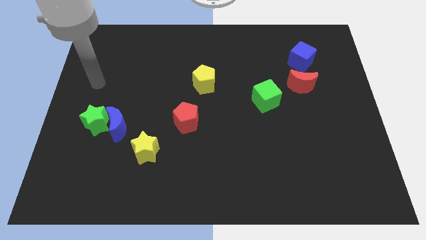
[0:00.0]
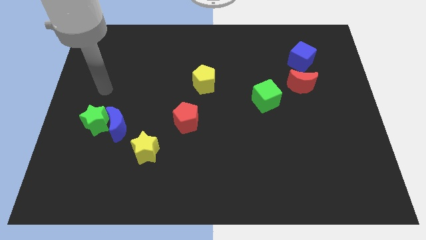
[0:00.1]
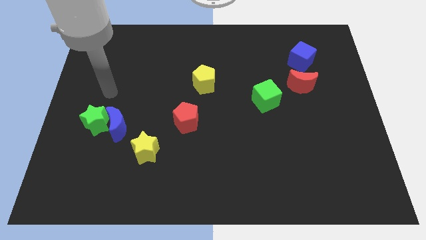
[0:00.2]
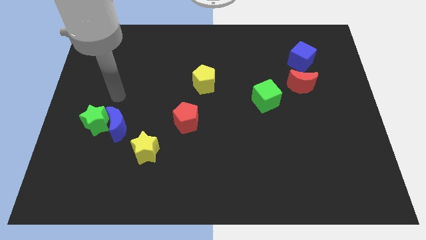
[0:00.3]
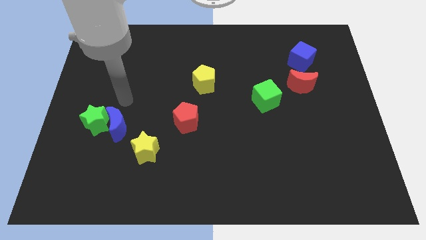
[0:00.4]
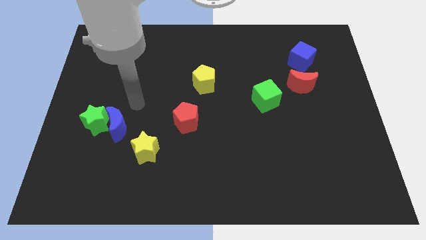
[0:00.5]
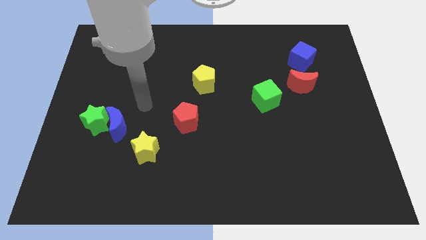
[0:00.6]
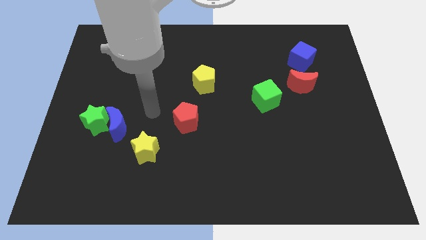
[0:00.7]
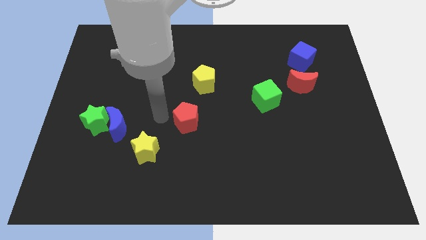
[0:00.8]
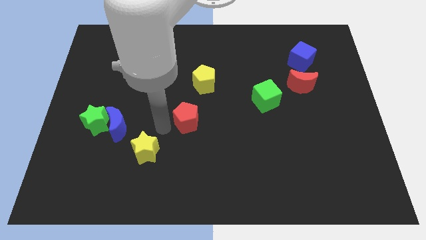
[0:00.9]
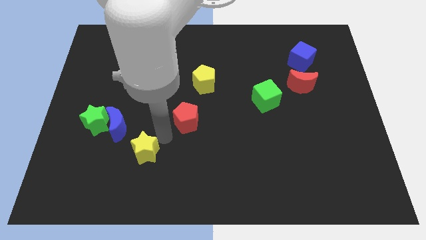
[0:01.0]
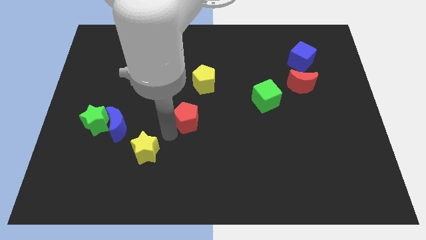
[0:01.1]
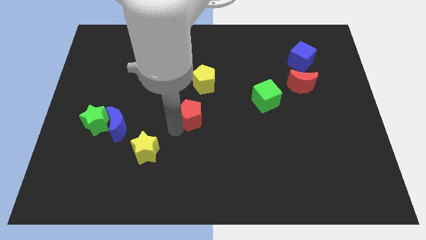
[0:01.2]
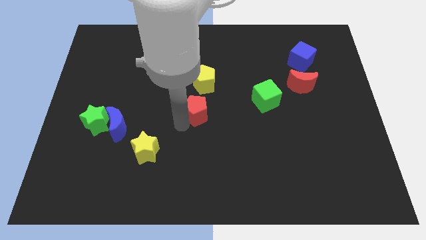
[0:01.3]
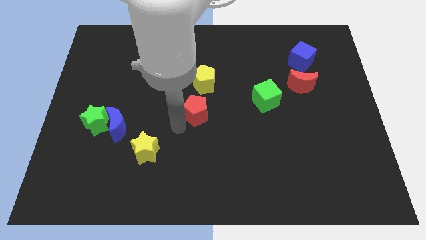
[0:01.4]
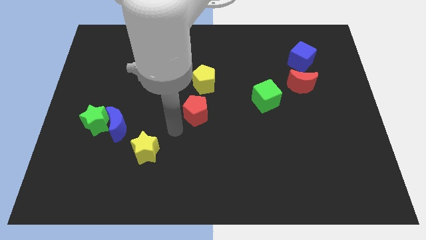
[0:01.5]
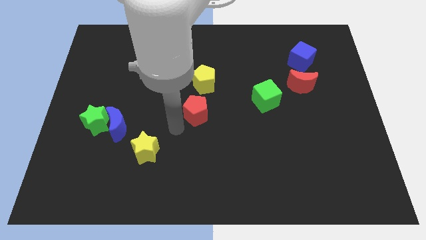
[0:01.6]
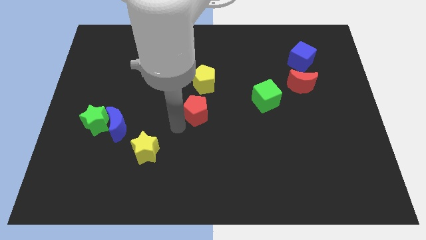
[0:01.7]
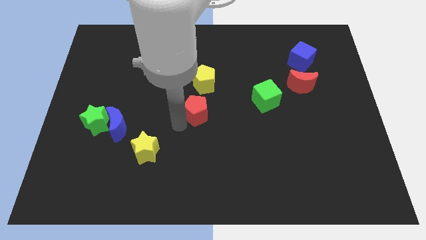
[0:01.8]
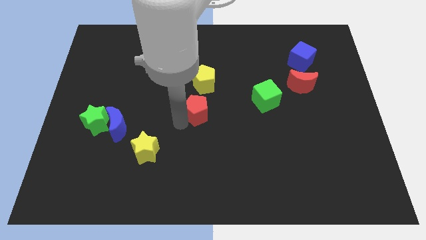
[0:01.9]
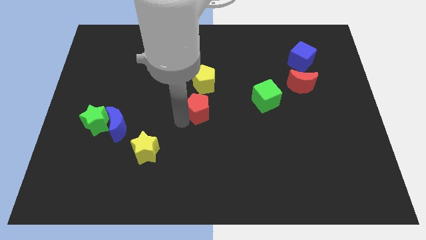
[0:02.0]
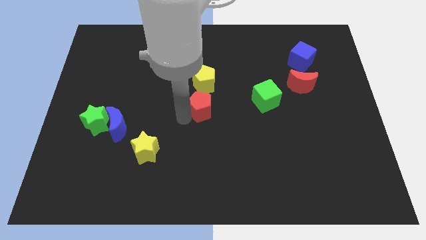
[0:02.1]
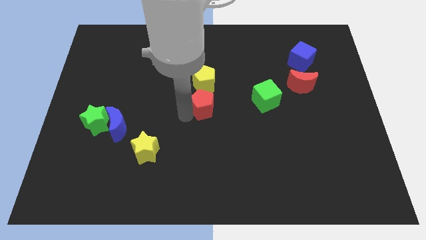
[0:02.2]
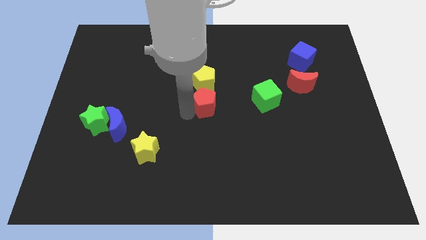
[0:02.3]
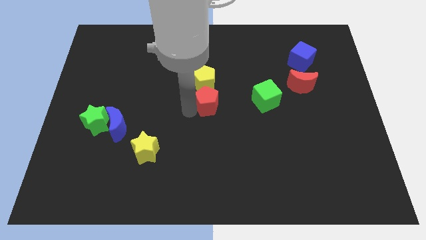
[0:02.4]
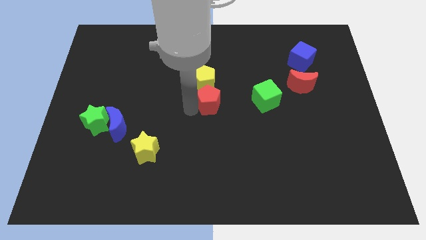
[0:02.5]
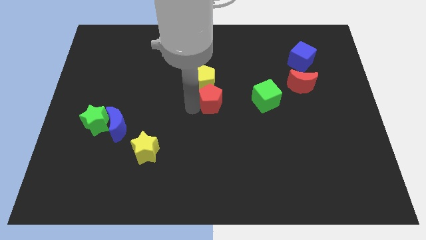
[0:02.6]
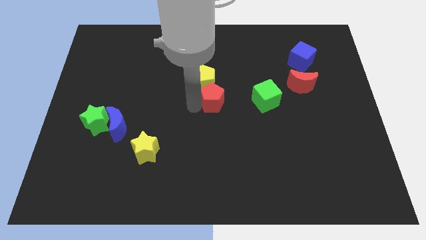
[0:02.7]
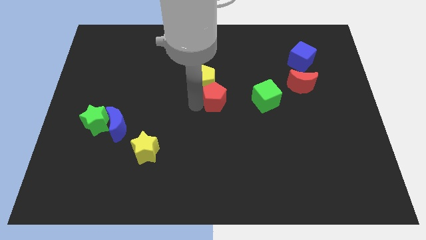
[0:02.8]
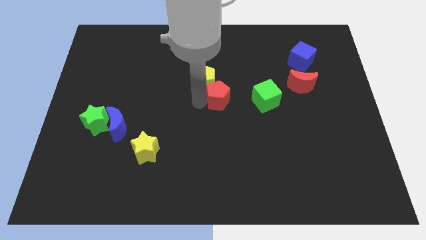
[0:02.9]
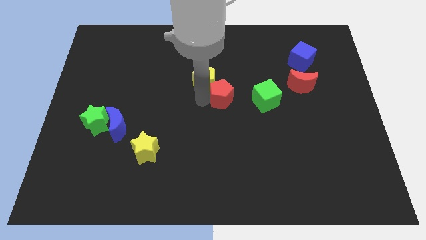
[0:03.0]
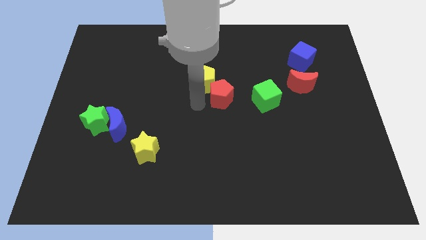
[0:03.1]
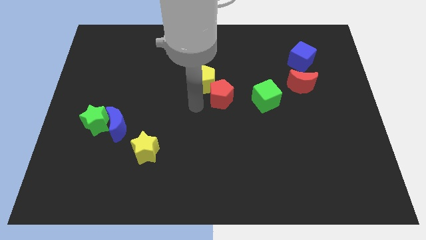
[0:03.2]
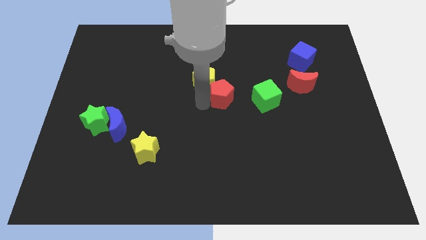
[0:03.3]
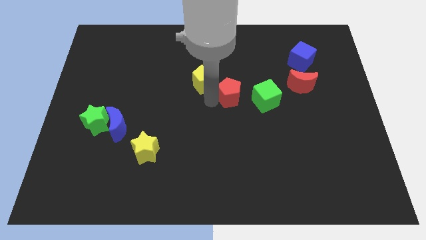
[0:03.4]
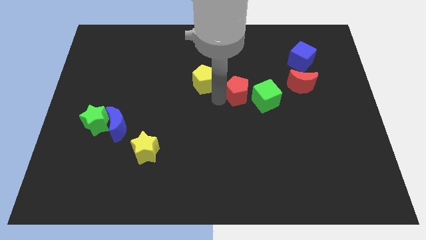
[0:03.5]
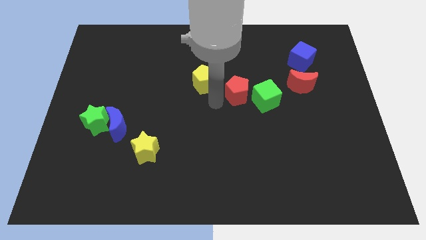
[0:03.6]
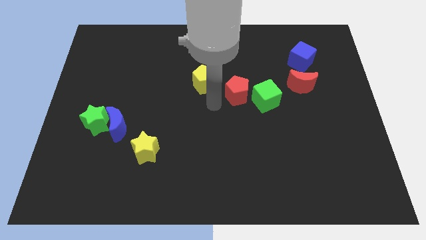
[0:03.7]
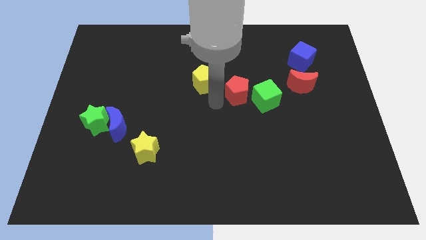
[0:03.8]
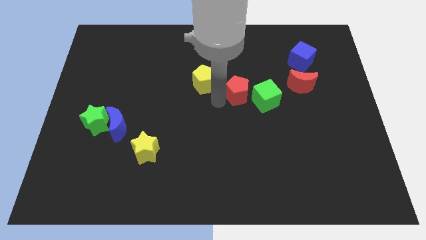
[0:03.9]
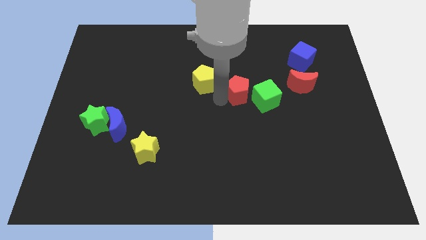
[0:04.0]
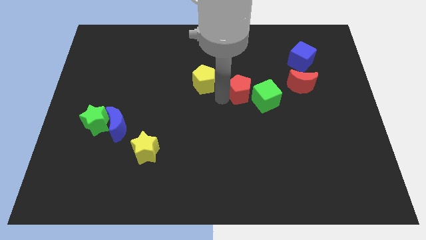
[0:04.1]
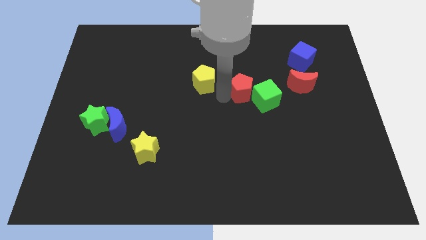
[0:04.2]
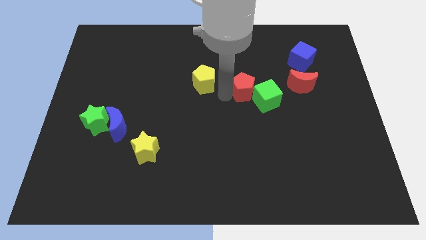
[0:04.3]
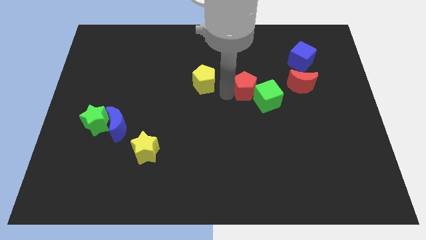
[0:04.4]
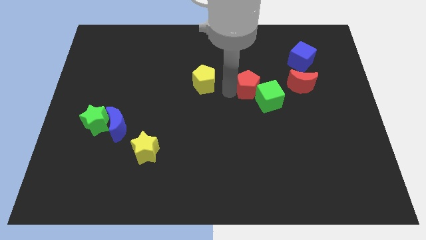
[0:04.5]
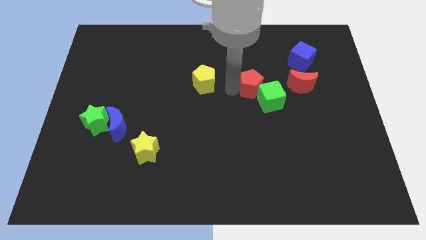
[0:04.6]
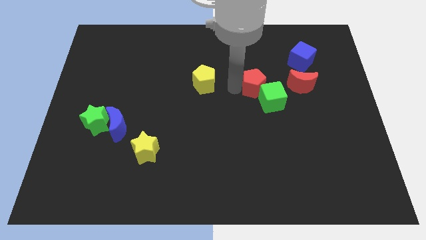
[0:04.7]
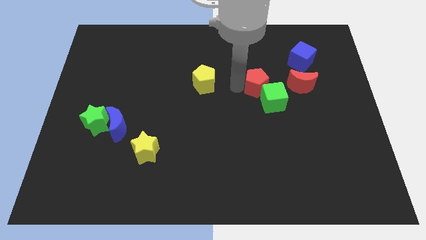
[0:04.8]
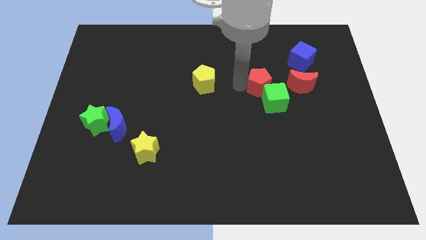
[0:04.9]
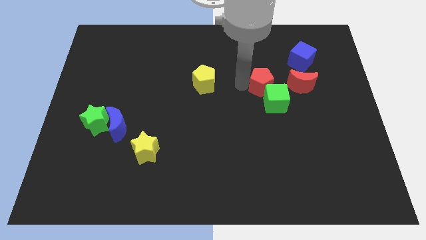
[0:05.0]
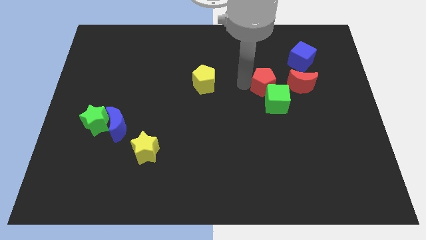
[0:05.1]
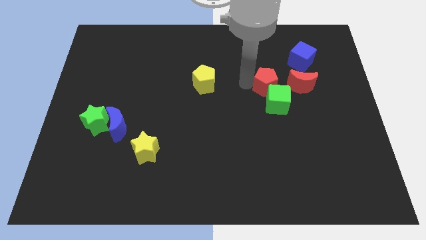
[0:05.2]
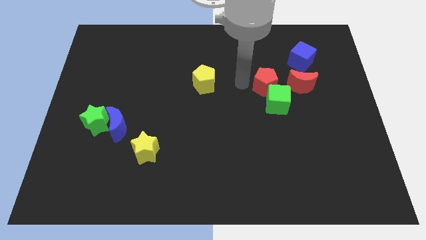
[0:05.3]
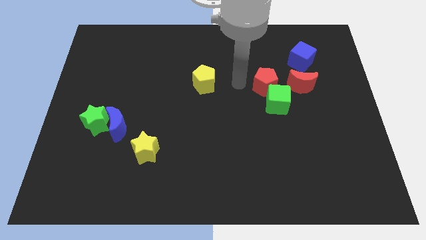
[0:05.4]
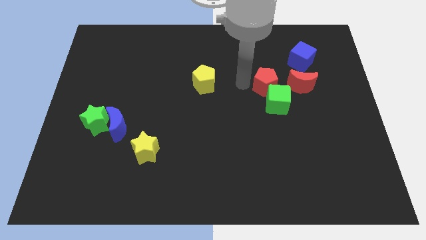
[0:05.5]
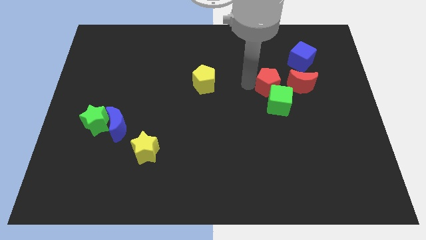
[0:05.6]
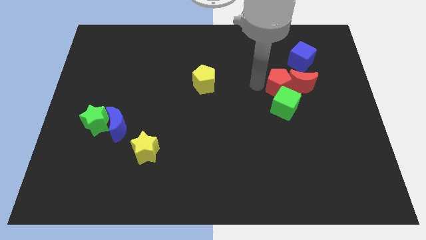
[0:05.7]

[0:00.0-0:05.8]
push the red pentagon towards the red moon

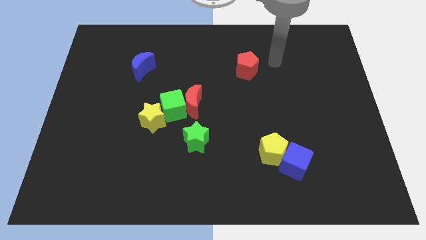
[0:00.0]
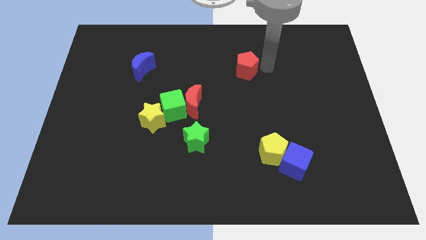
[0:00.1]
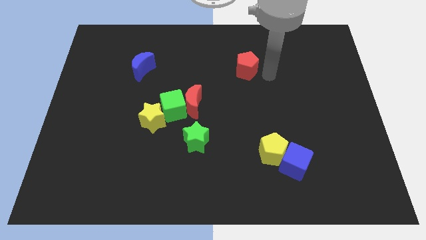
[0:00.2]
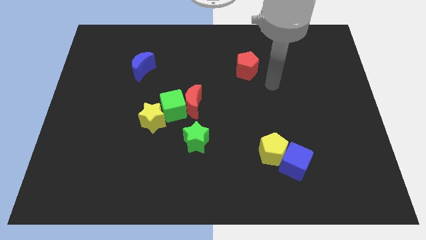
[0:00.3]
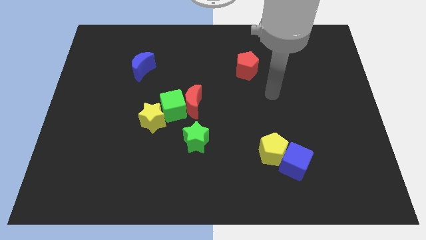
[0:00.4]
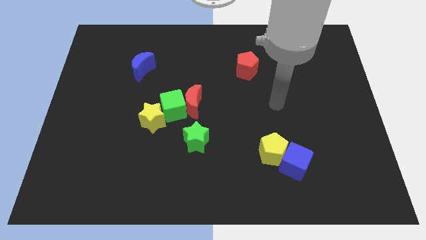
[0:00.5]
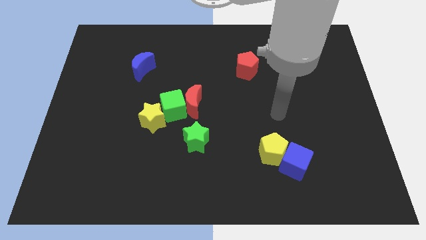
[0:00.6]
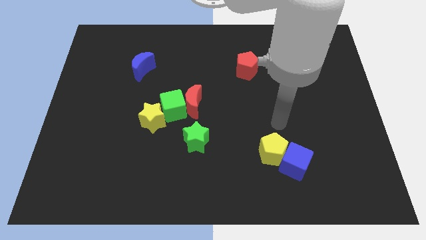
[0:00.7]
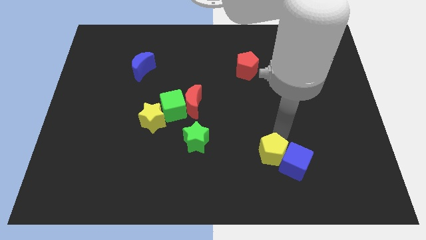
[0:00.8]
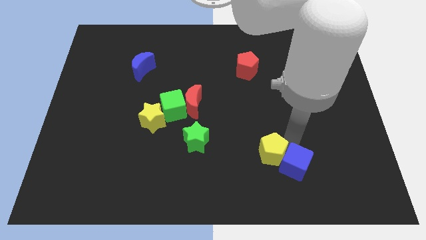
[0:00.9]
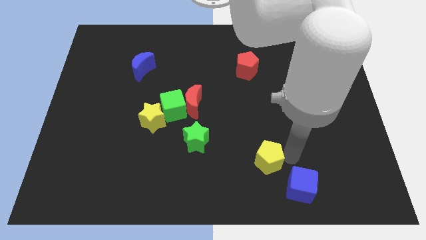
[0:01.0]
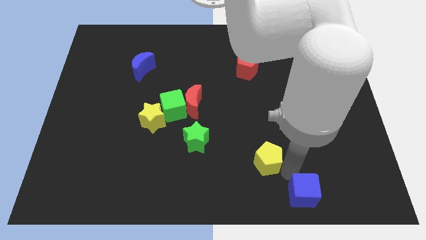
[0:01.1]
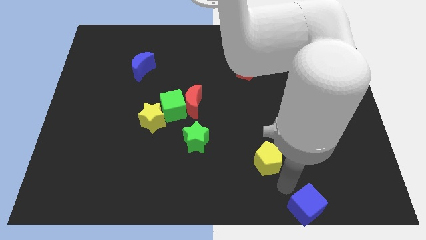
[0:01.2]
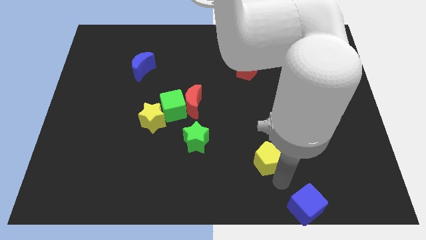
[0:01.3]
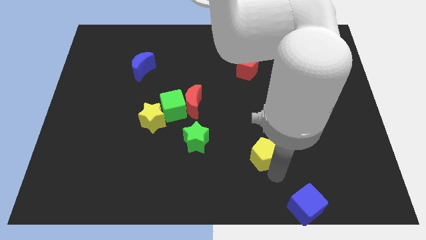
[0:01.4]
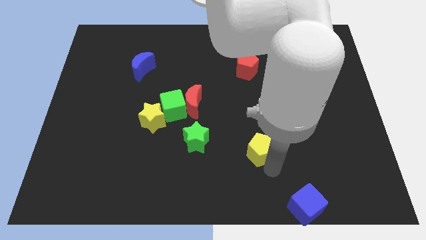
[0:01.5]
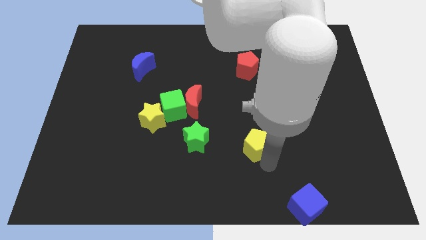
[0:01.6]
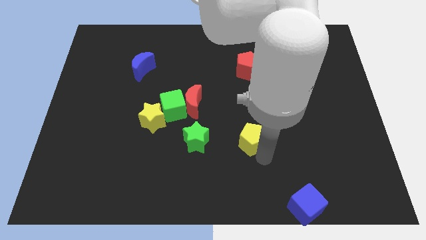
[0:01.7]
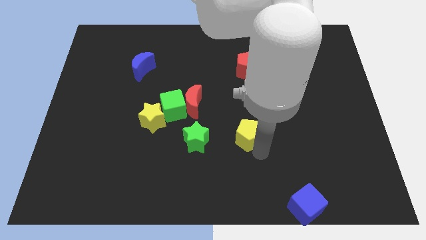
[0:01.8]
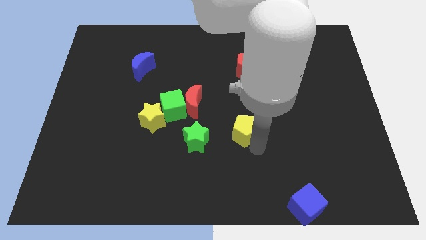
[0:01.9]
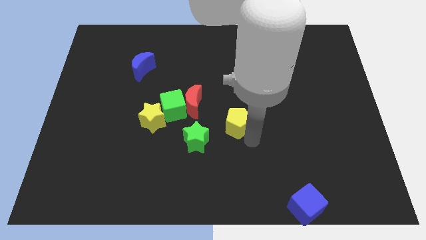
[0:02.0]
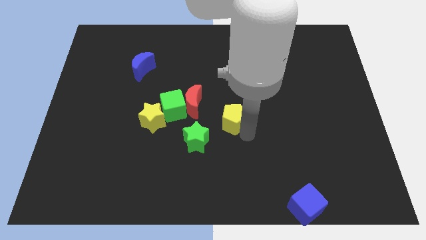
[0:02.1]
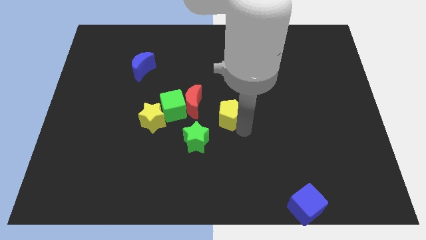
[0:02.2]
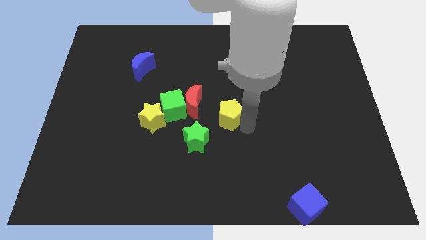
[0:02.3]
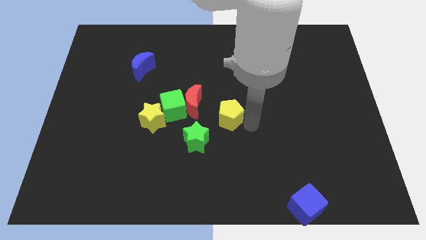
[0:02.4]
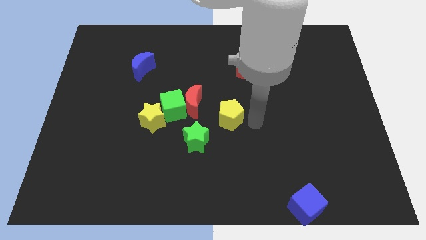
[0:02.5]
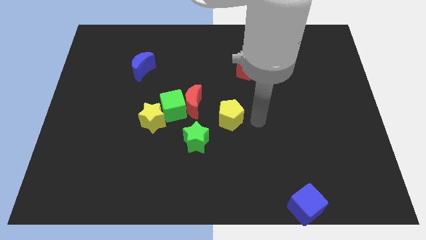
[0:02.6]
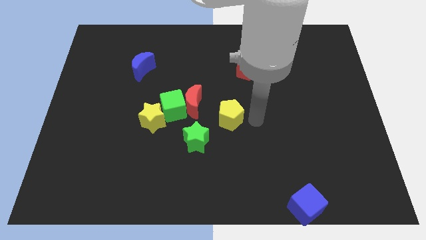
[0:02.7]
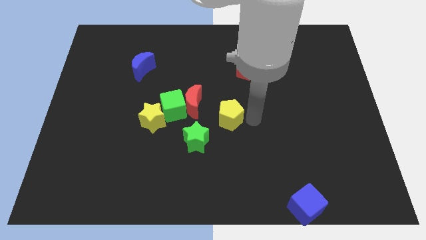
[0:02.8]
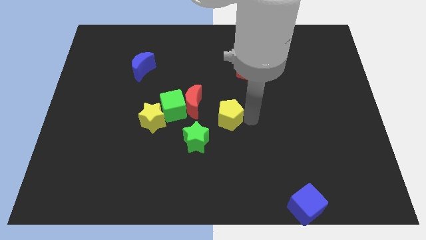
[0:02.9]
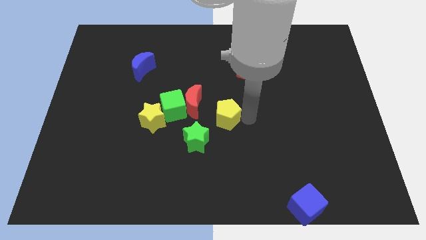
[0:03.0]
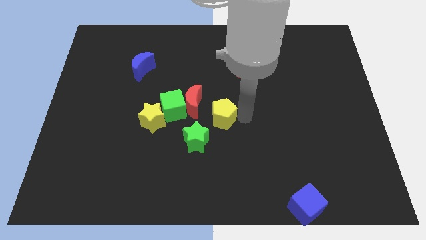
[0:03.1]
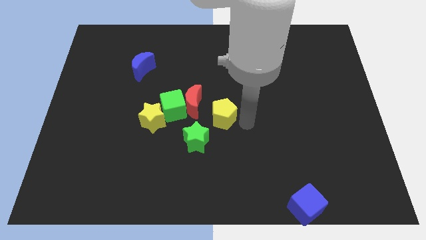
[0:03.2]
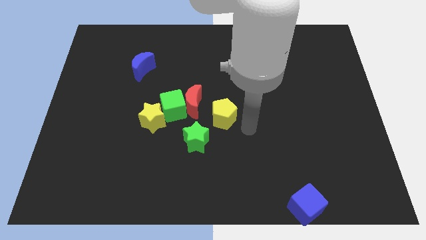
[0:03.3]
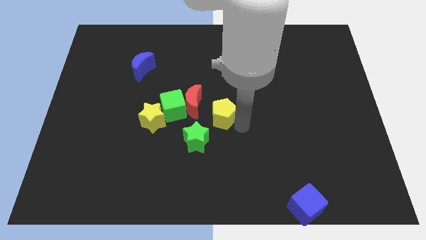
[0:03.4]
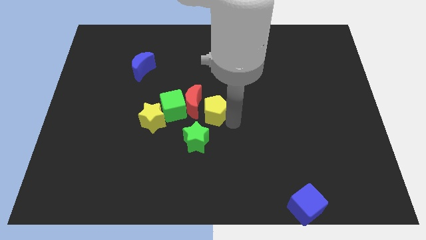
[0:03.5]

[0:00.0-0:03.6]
move the yellow pentagon towards the red moon
